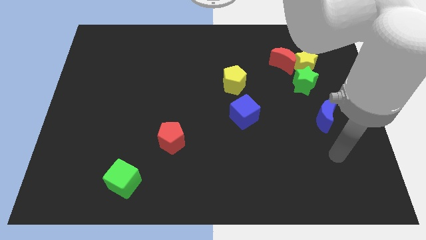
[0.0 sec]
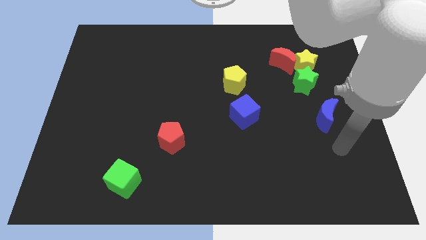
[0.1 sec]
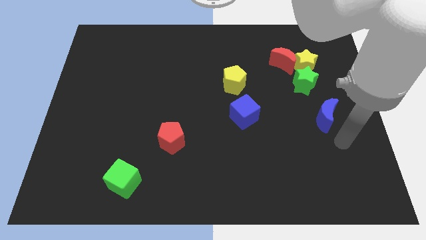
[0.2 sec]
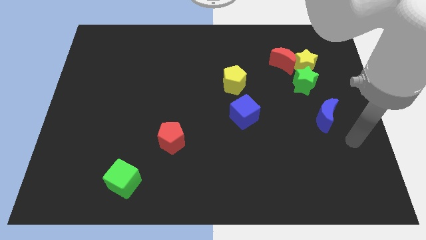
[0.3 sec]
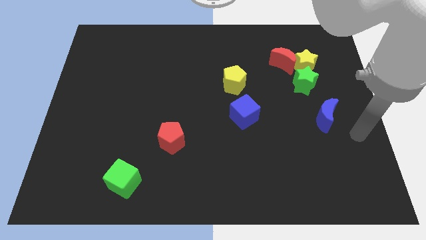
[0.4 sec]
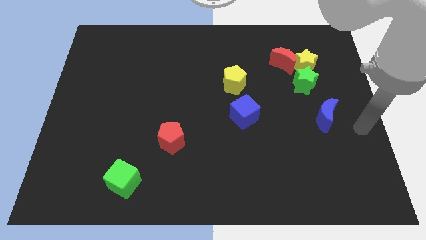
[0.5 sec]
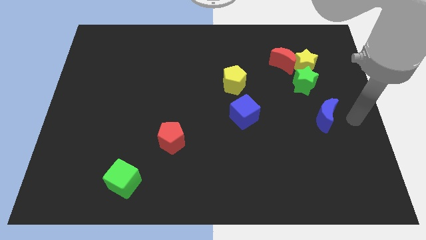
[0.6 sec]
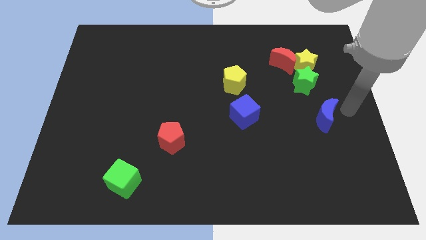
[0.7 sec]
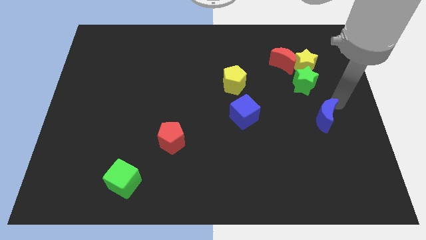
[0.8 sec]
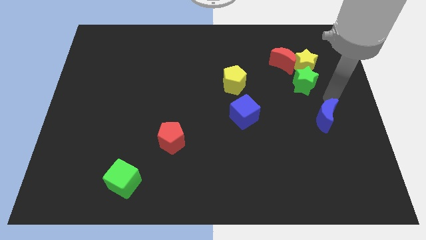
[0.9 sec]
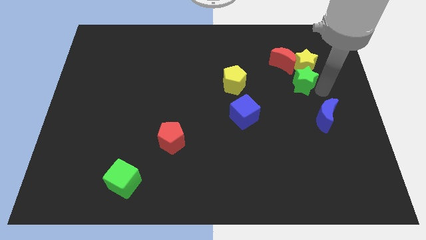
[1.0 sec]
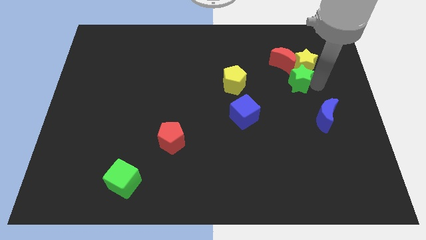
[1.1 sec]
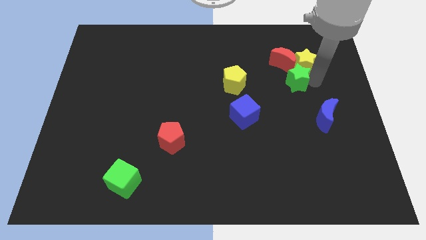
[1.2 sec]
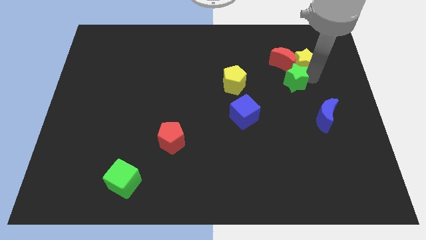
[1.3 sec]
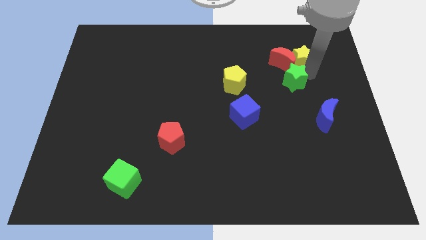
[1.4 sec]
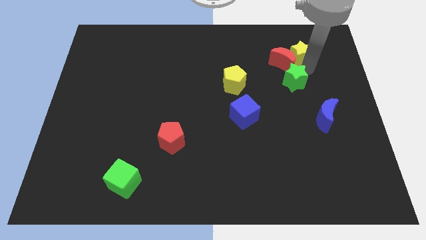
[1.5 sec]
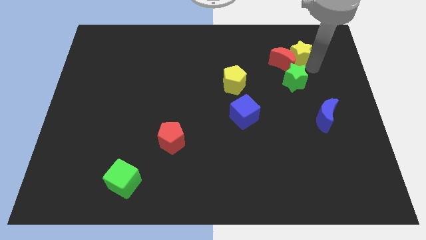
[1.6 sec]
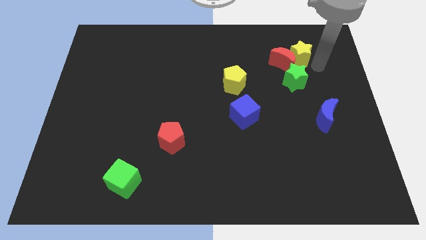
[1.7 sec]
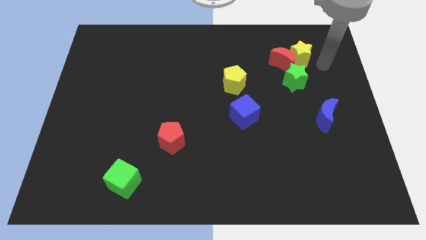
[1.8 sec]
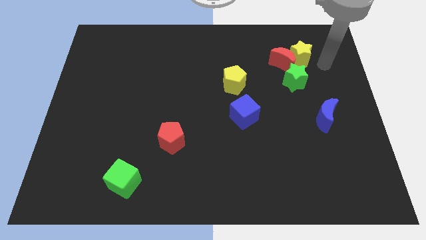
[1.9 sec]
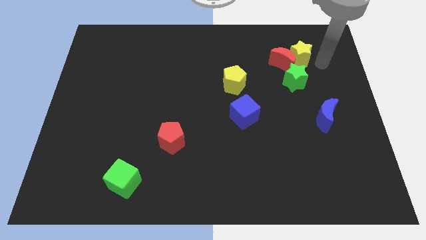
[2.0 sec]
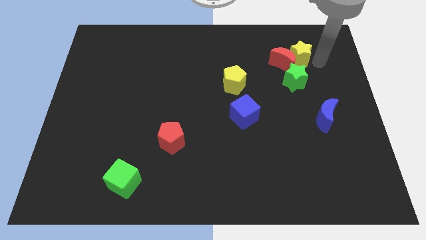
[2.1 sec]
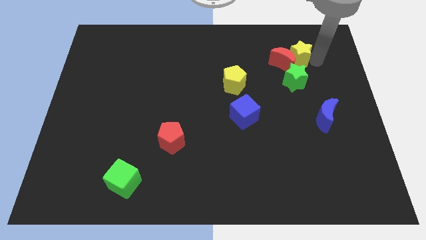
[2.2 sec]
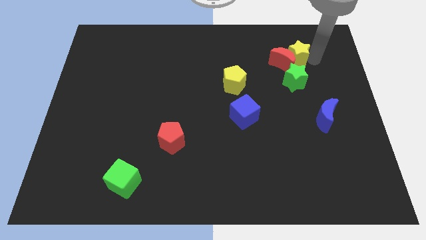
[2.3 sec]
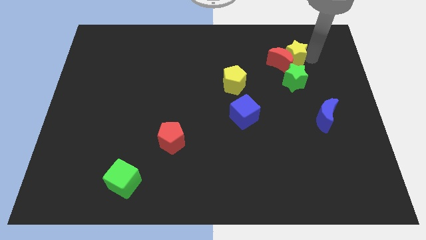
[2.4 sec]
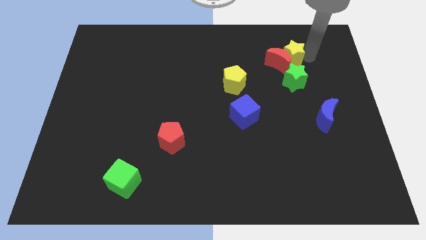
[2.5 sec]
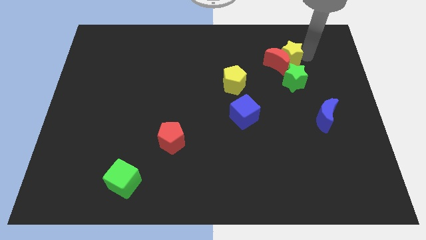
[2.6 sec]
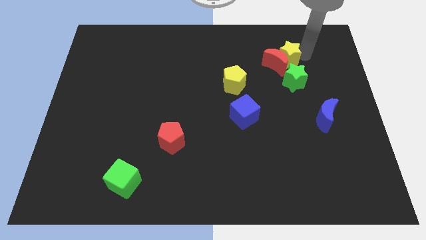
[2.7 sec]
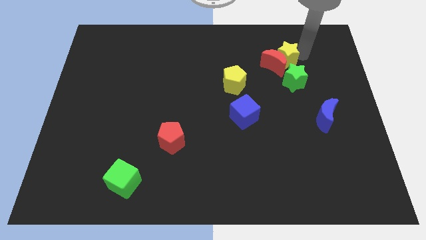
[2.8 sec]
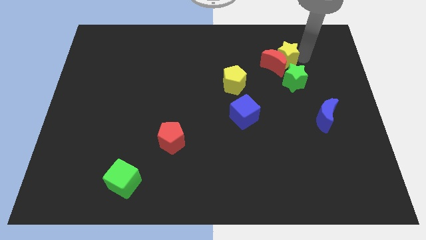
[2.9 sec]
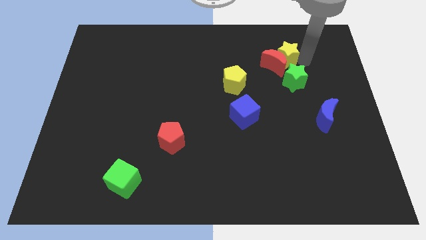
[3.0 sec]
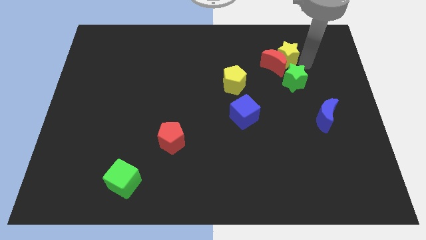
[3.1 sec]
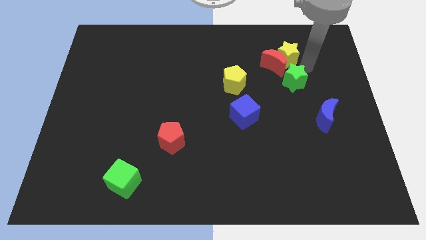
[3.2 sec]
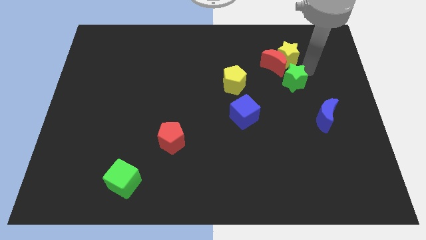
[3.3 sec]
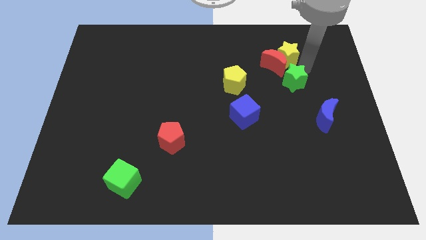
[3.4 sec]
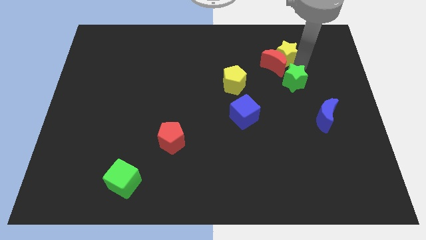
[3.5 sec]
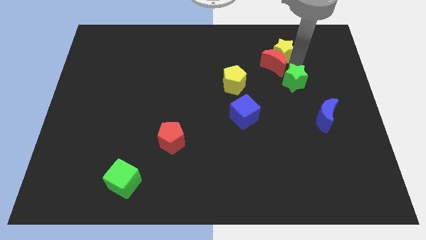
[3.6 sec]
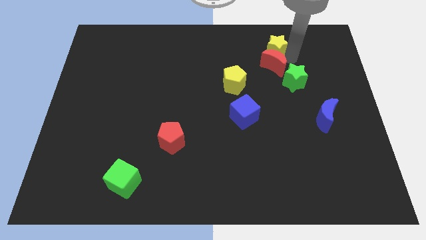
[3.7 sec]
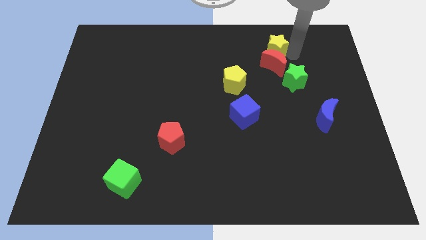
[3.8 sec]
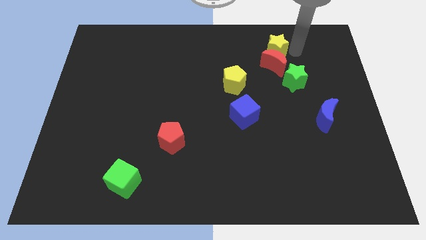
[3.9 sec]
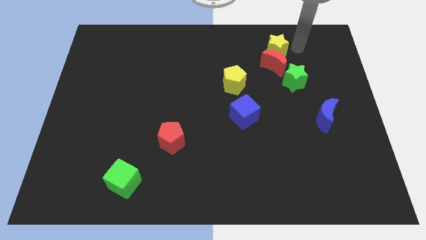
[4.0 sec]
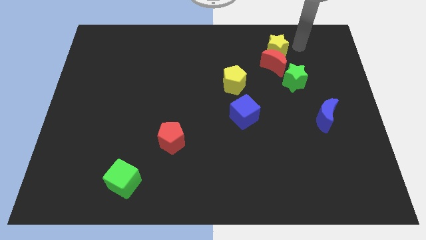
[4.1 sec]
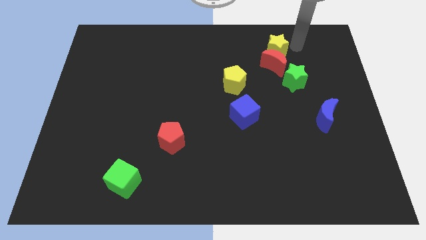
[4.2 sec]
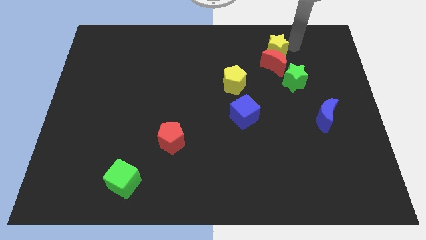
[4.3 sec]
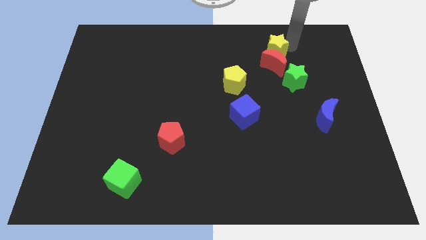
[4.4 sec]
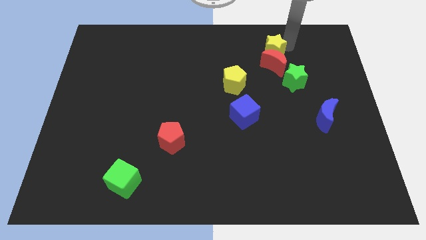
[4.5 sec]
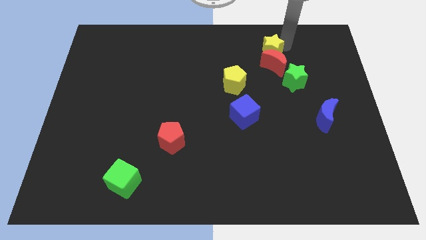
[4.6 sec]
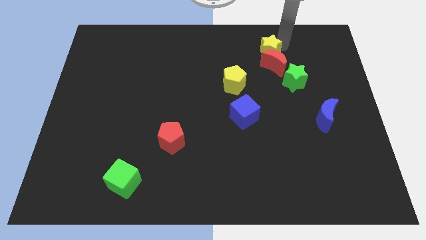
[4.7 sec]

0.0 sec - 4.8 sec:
slide the yellow star slightly to the left

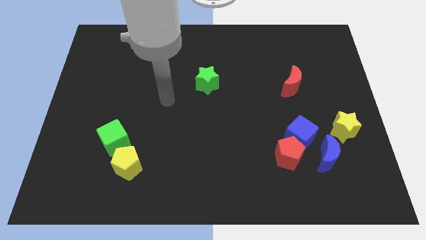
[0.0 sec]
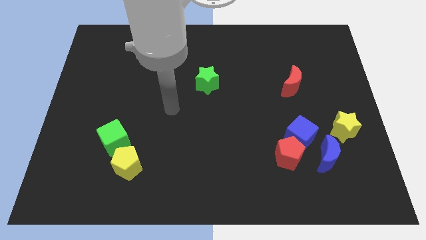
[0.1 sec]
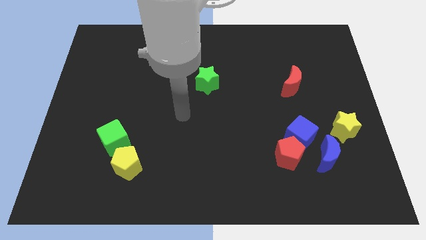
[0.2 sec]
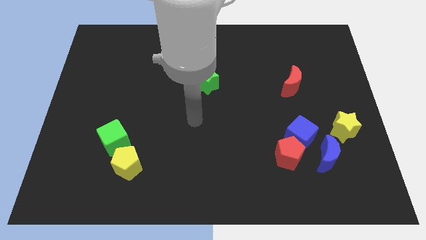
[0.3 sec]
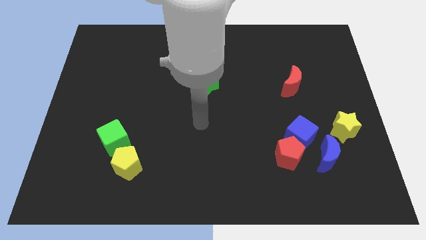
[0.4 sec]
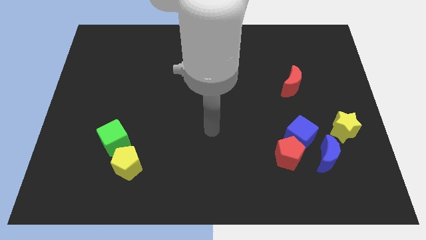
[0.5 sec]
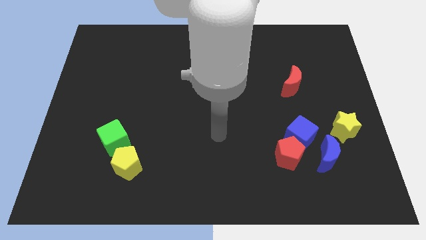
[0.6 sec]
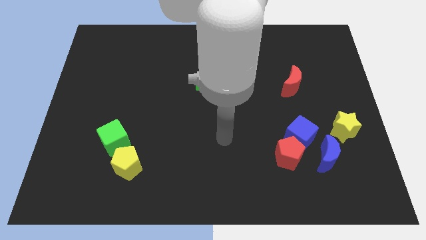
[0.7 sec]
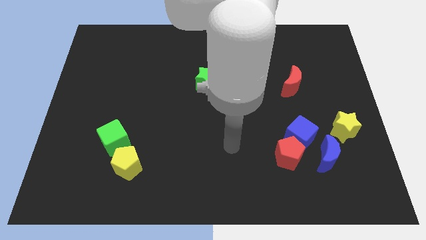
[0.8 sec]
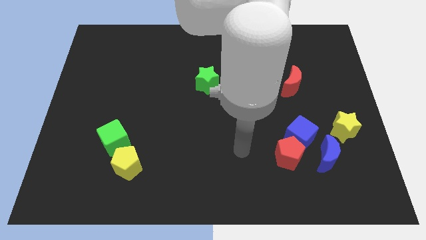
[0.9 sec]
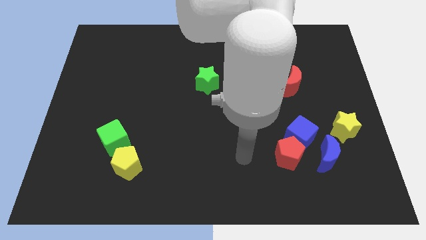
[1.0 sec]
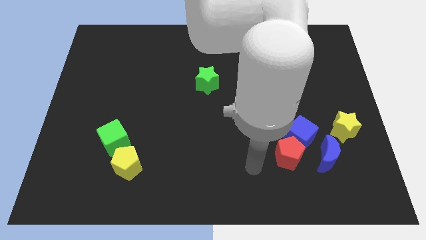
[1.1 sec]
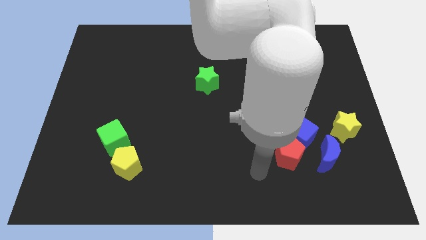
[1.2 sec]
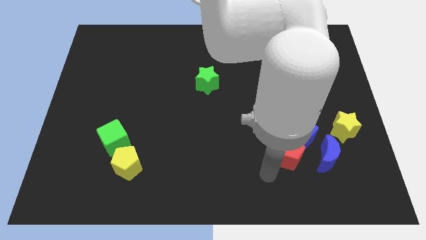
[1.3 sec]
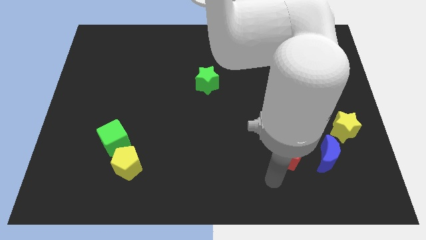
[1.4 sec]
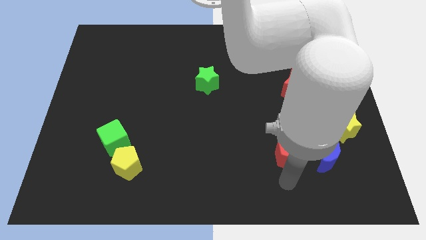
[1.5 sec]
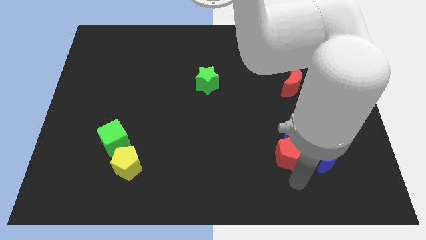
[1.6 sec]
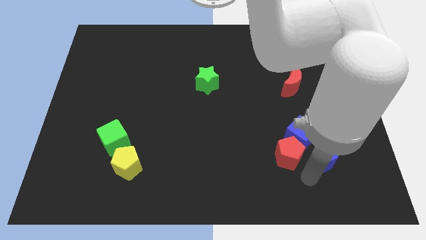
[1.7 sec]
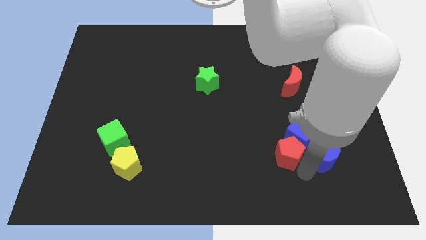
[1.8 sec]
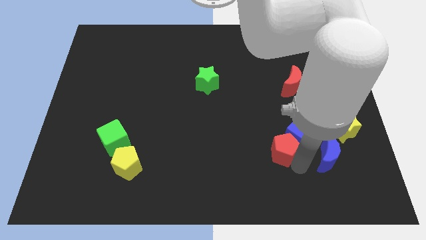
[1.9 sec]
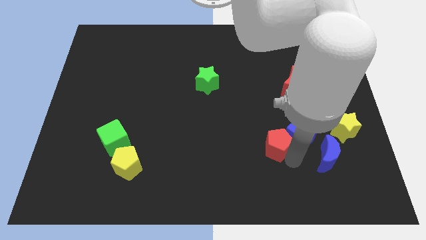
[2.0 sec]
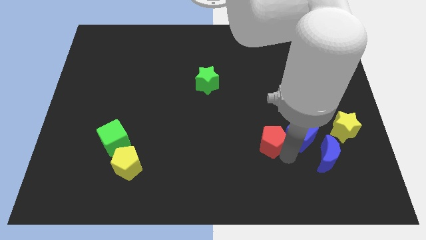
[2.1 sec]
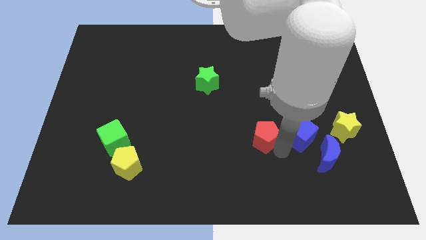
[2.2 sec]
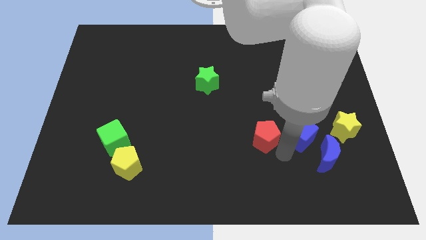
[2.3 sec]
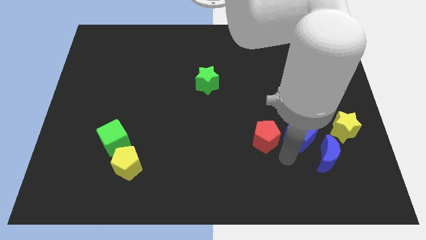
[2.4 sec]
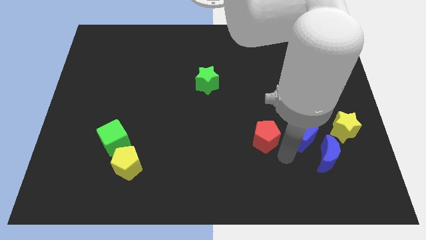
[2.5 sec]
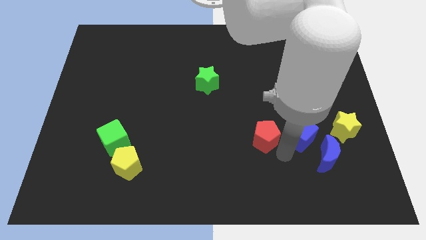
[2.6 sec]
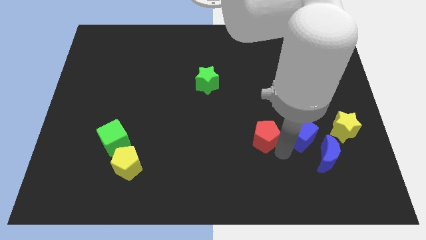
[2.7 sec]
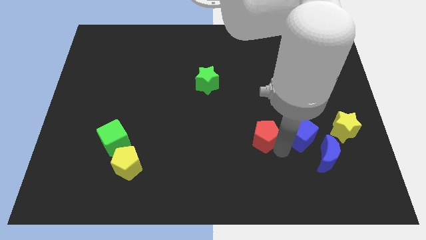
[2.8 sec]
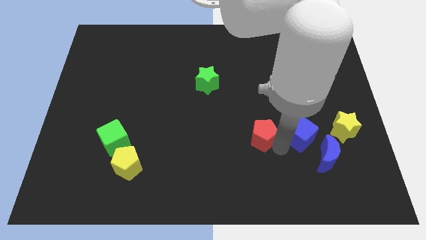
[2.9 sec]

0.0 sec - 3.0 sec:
slightly push the red pentagon up and then to the left

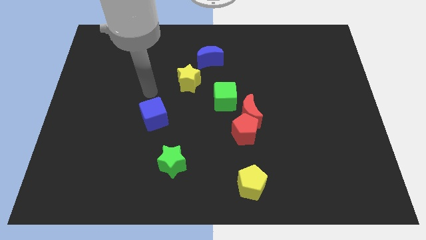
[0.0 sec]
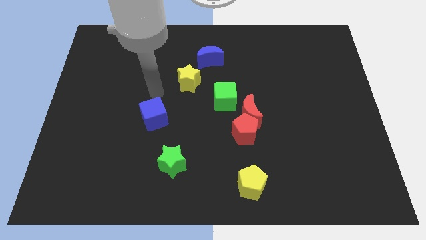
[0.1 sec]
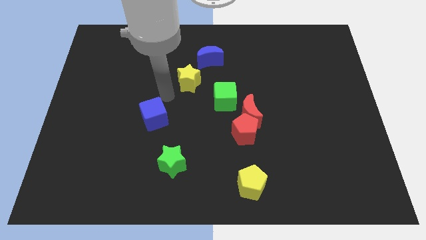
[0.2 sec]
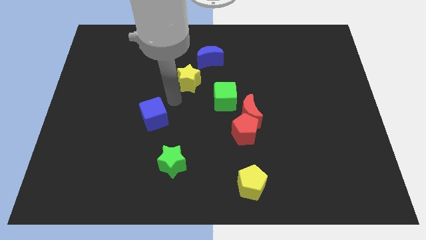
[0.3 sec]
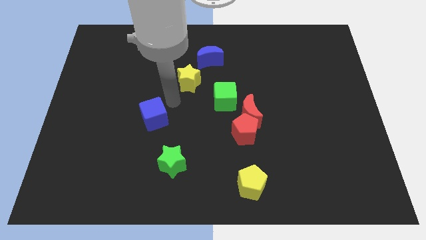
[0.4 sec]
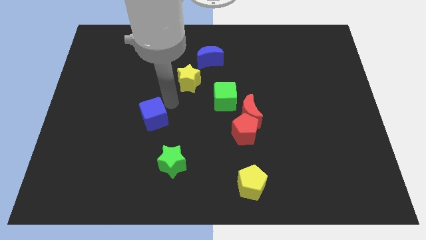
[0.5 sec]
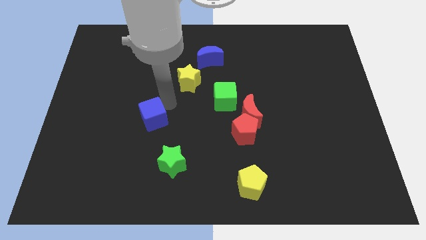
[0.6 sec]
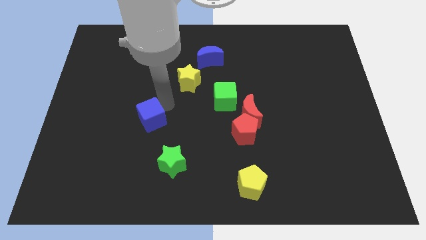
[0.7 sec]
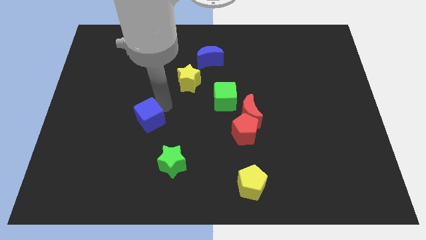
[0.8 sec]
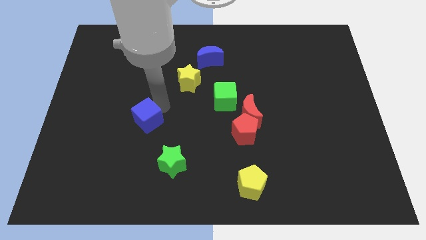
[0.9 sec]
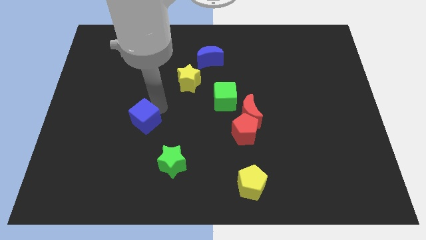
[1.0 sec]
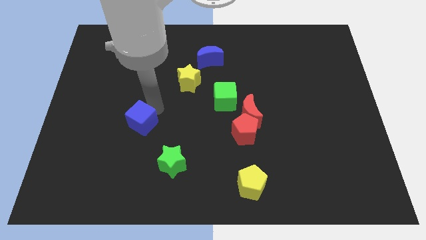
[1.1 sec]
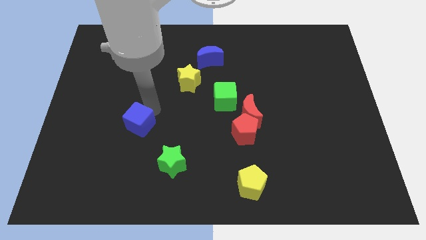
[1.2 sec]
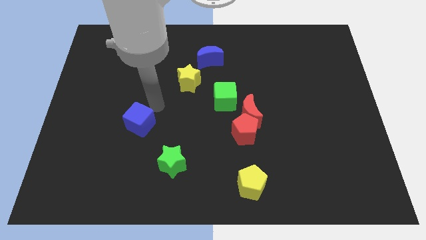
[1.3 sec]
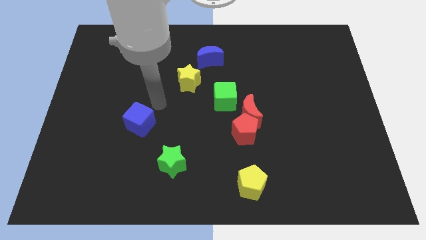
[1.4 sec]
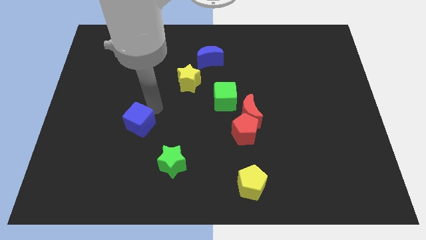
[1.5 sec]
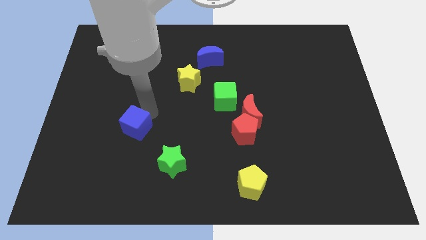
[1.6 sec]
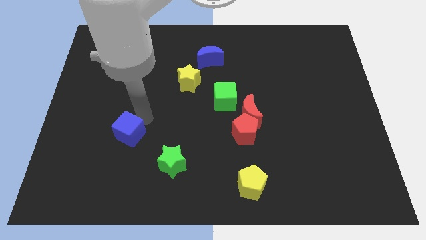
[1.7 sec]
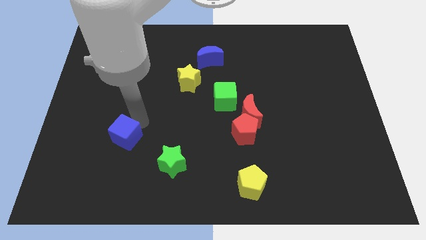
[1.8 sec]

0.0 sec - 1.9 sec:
slide the blue cube diagonally downwards and left a bit
